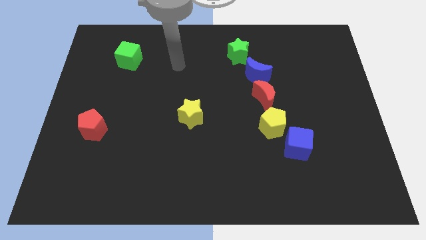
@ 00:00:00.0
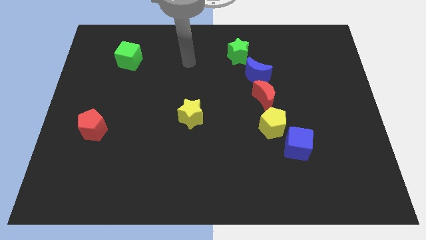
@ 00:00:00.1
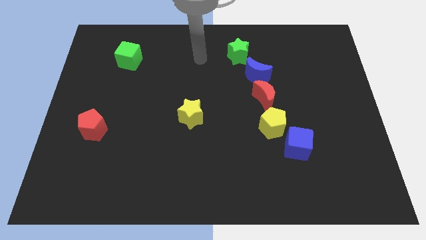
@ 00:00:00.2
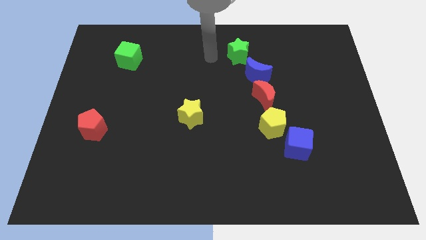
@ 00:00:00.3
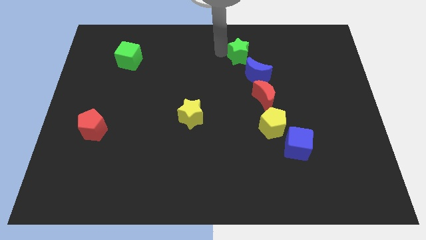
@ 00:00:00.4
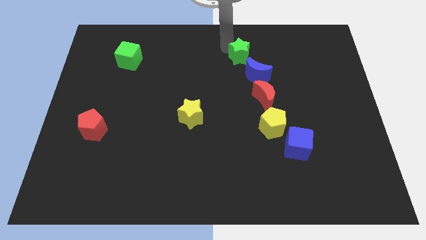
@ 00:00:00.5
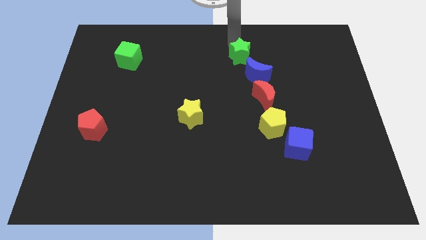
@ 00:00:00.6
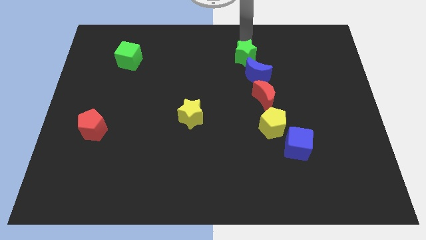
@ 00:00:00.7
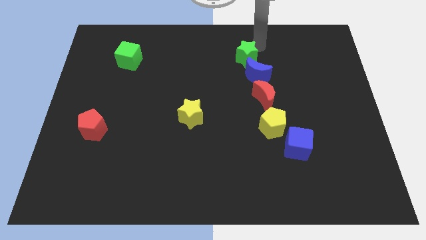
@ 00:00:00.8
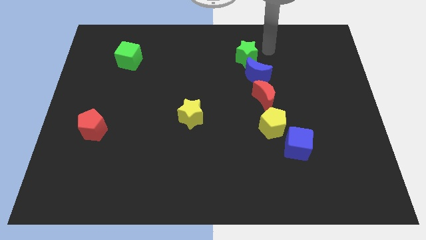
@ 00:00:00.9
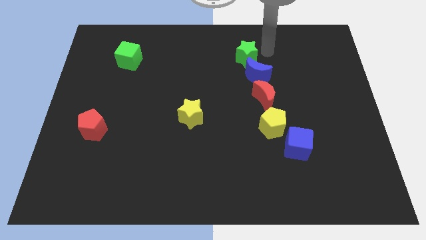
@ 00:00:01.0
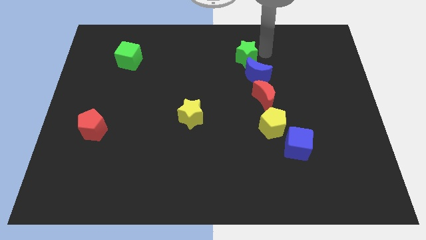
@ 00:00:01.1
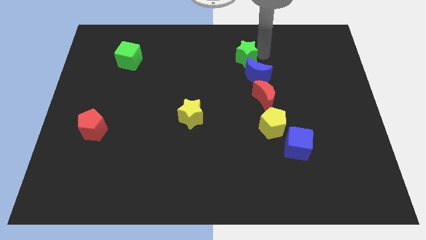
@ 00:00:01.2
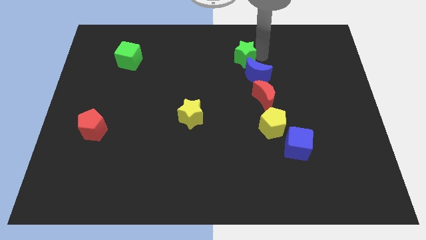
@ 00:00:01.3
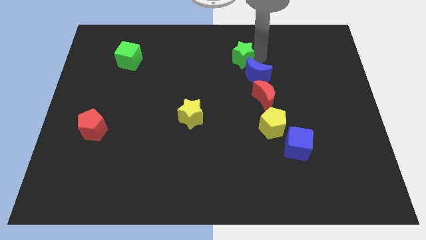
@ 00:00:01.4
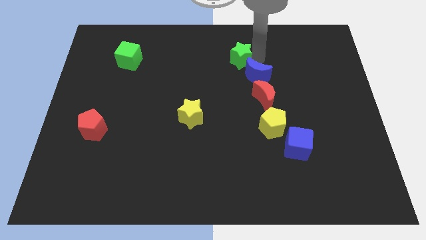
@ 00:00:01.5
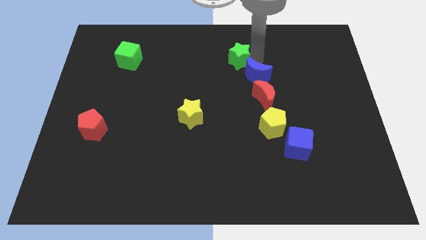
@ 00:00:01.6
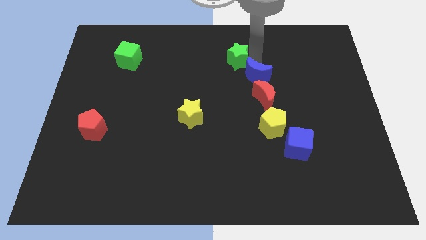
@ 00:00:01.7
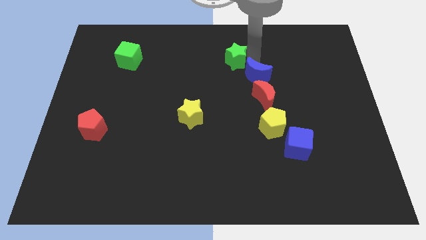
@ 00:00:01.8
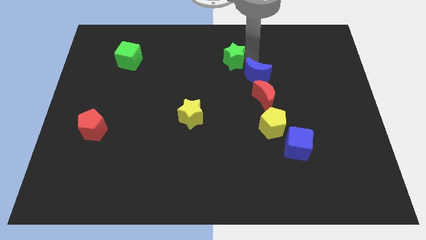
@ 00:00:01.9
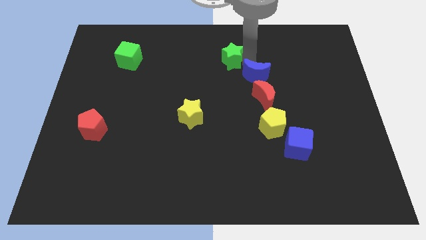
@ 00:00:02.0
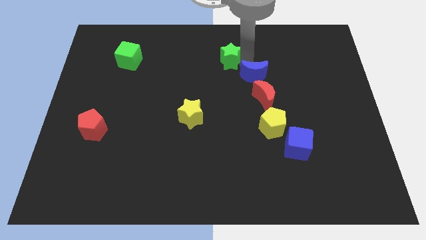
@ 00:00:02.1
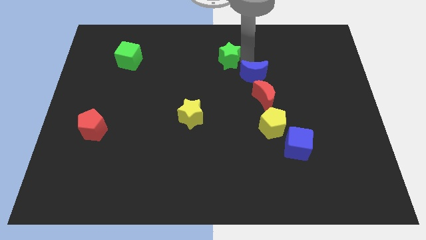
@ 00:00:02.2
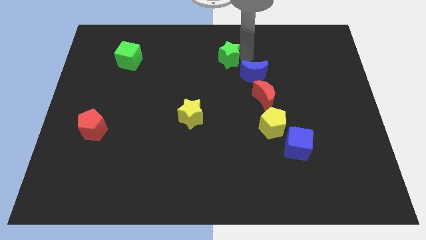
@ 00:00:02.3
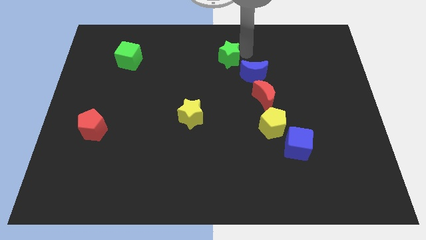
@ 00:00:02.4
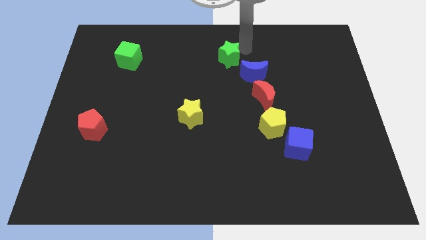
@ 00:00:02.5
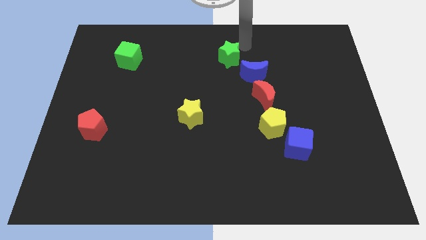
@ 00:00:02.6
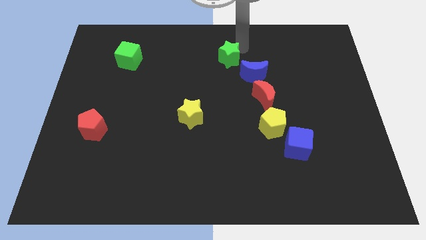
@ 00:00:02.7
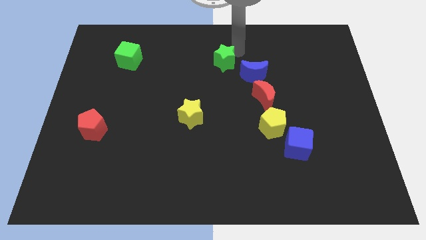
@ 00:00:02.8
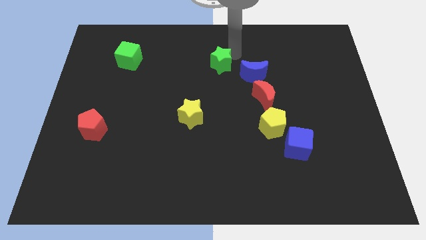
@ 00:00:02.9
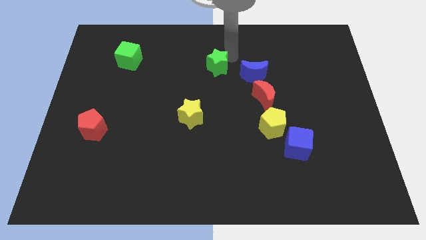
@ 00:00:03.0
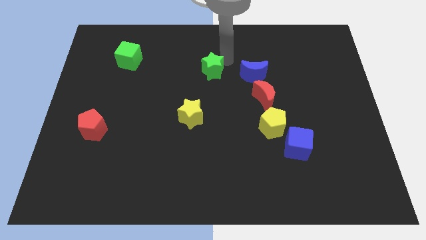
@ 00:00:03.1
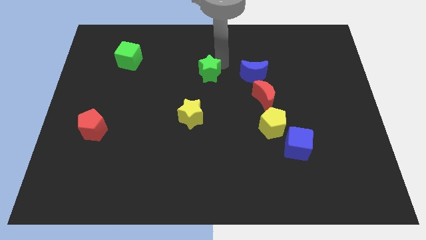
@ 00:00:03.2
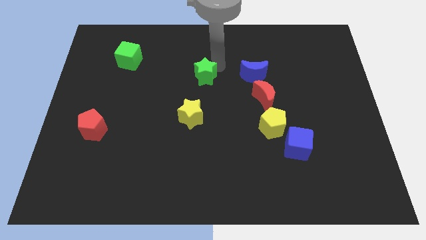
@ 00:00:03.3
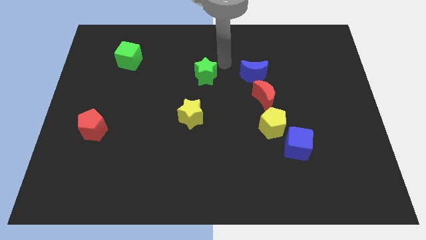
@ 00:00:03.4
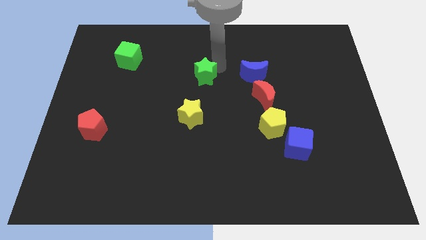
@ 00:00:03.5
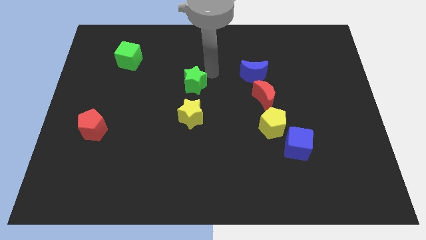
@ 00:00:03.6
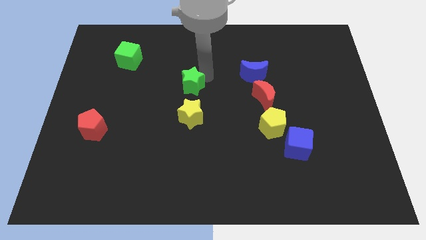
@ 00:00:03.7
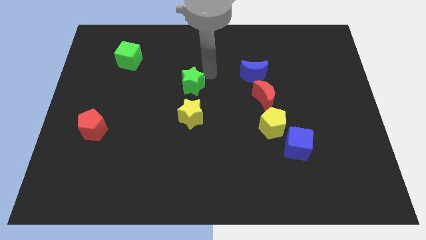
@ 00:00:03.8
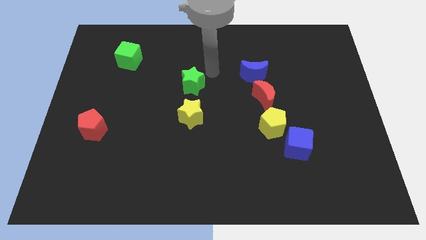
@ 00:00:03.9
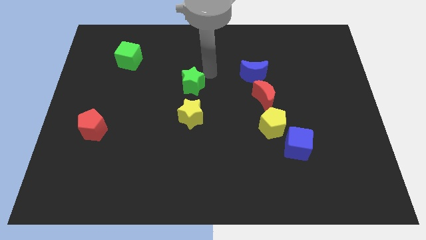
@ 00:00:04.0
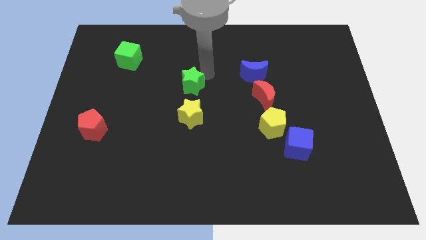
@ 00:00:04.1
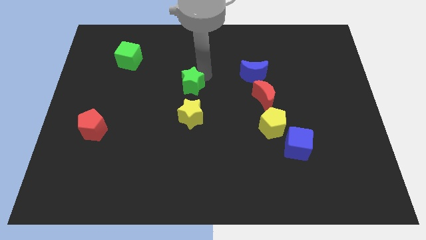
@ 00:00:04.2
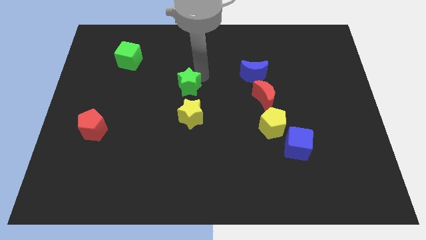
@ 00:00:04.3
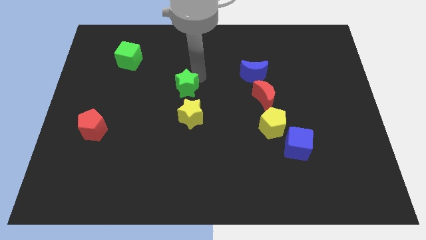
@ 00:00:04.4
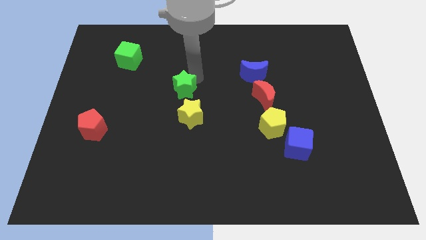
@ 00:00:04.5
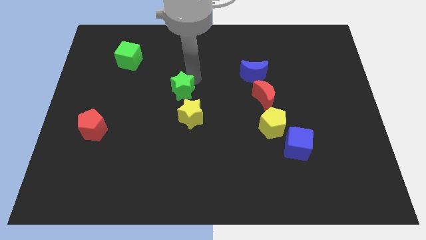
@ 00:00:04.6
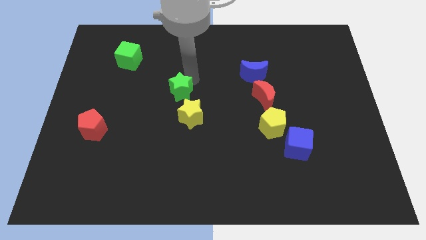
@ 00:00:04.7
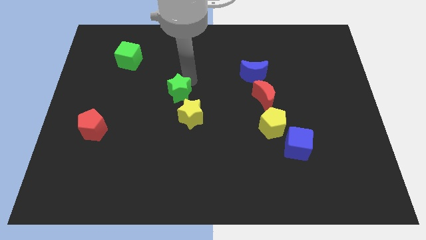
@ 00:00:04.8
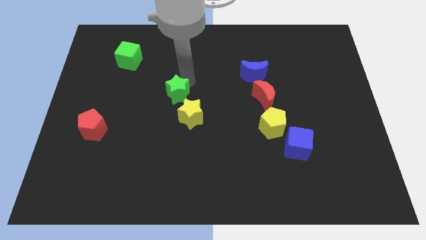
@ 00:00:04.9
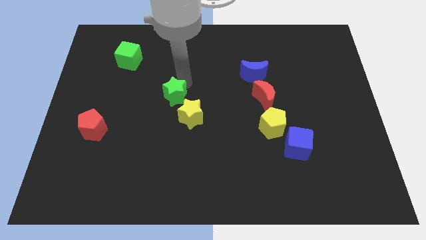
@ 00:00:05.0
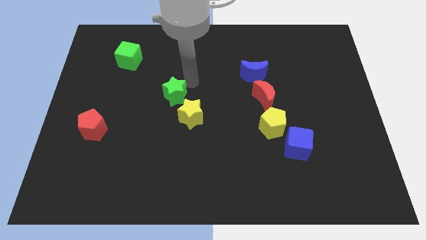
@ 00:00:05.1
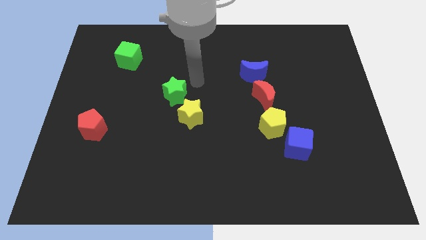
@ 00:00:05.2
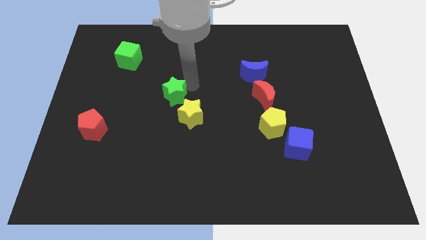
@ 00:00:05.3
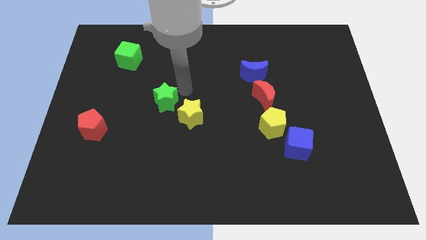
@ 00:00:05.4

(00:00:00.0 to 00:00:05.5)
put the green star left of the yellow star

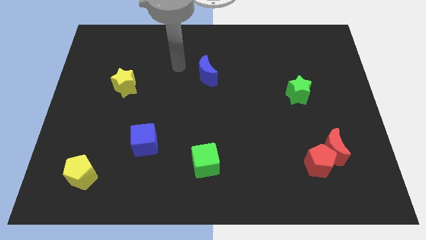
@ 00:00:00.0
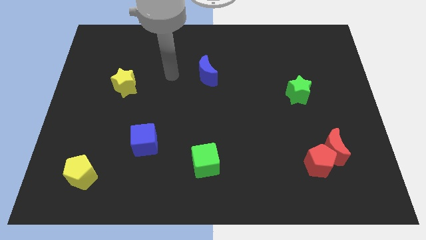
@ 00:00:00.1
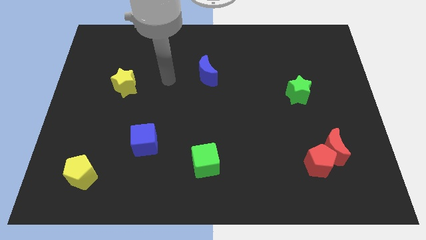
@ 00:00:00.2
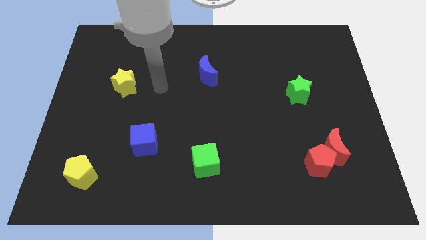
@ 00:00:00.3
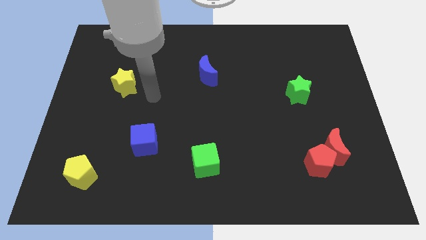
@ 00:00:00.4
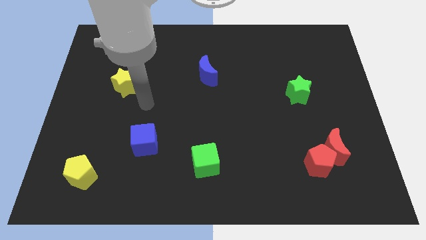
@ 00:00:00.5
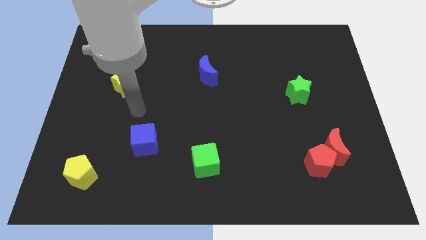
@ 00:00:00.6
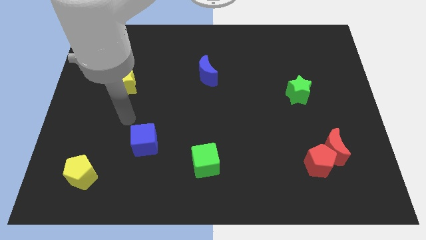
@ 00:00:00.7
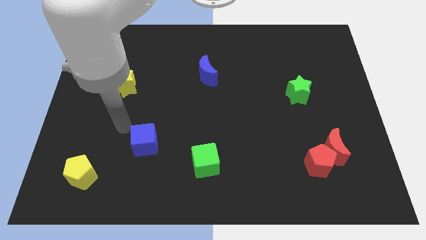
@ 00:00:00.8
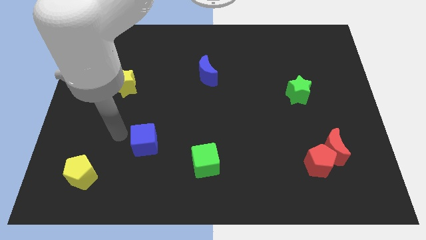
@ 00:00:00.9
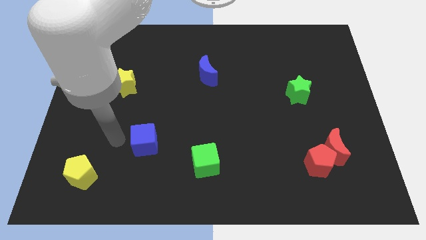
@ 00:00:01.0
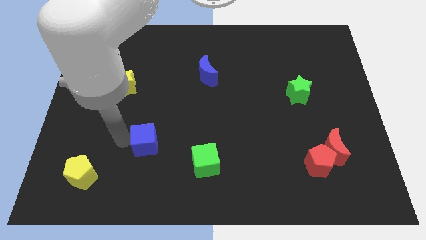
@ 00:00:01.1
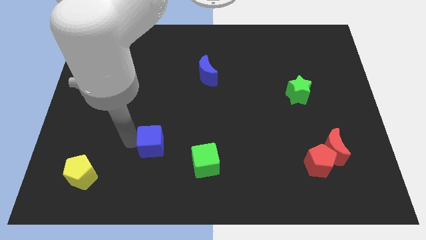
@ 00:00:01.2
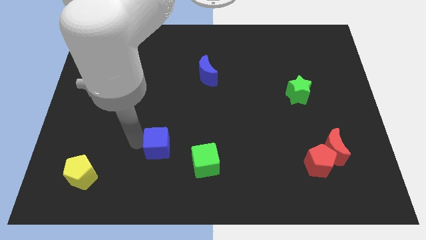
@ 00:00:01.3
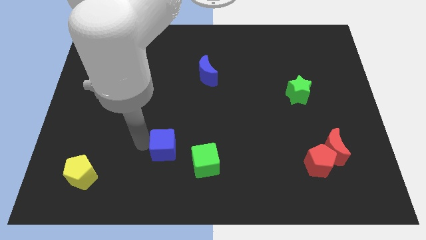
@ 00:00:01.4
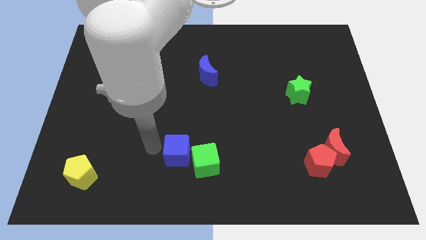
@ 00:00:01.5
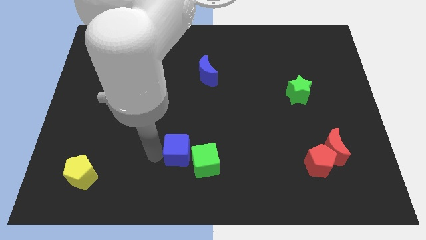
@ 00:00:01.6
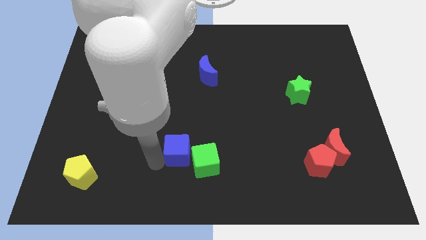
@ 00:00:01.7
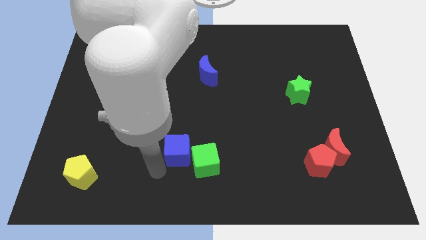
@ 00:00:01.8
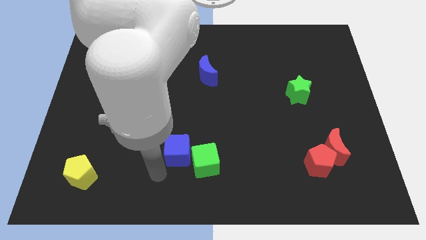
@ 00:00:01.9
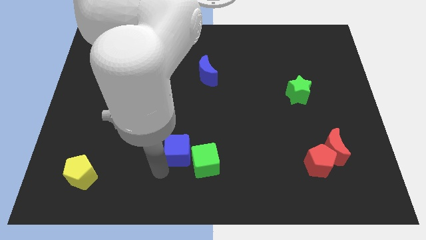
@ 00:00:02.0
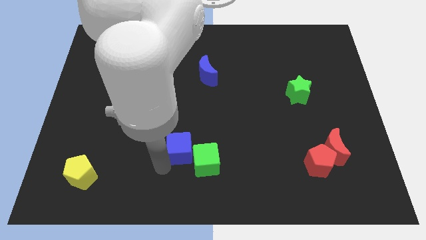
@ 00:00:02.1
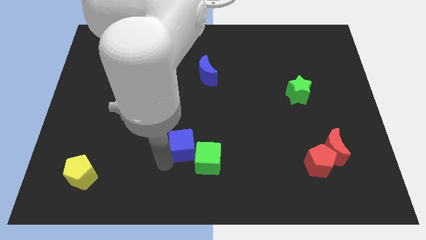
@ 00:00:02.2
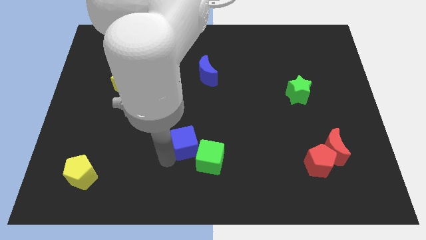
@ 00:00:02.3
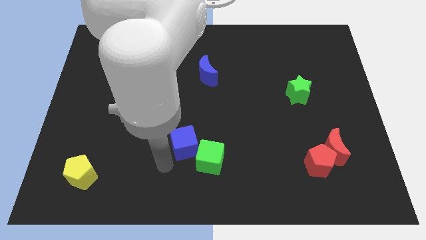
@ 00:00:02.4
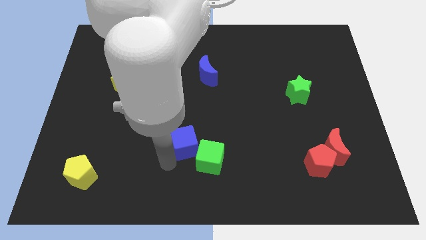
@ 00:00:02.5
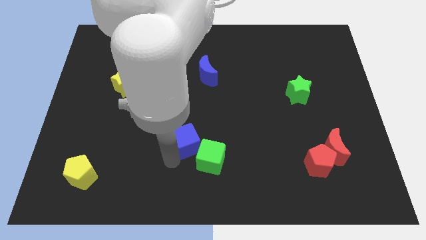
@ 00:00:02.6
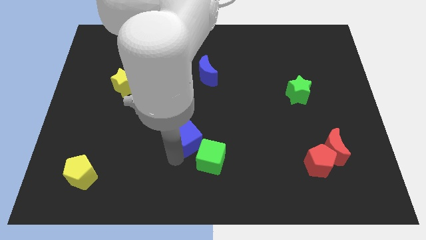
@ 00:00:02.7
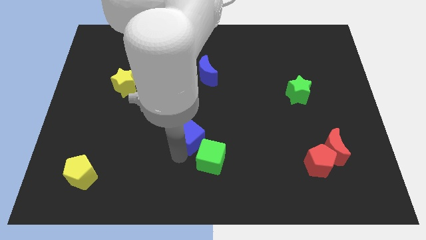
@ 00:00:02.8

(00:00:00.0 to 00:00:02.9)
put the blue cube to the top side of the green cube
